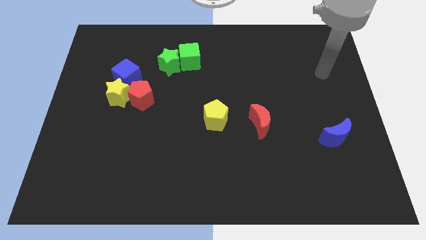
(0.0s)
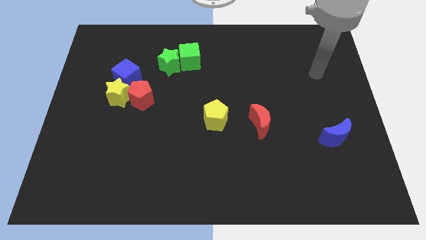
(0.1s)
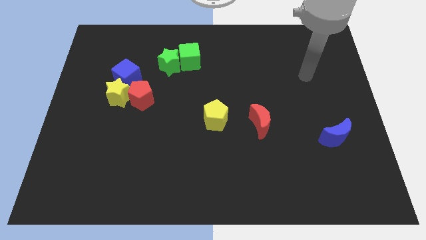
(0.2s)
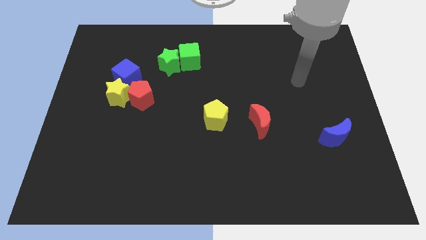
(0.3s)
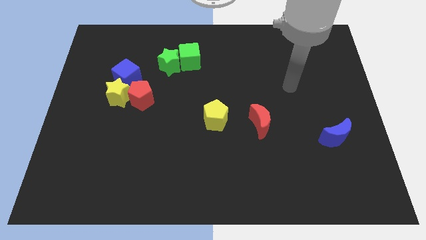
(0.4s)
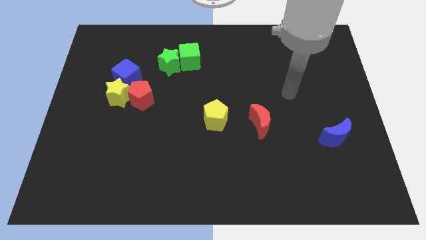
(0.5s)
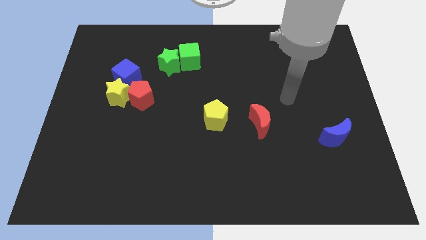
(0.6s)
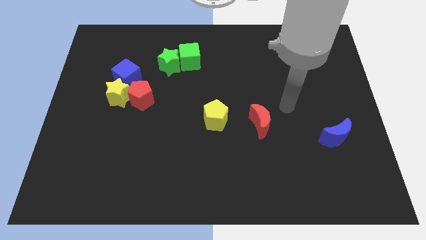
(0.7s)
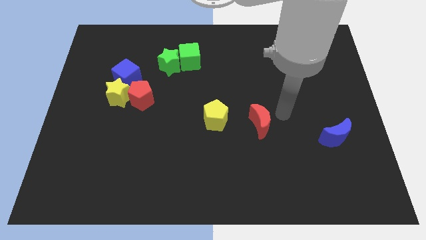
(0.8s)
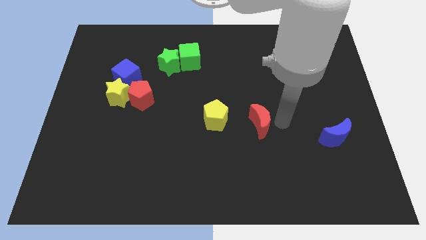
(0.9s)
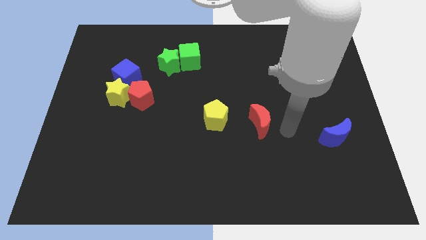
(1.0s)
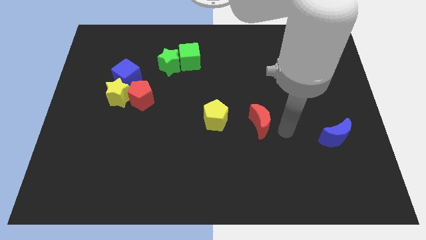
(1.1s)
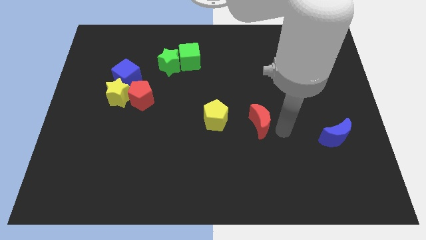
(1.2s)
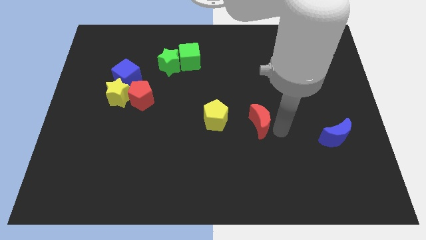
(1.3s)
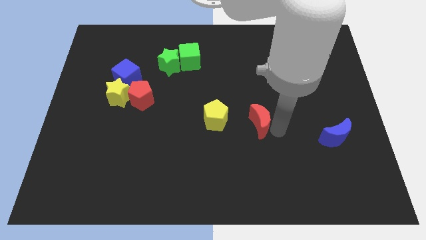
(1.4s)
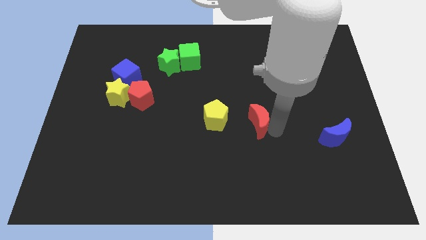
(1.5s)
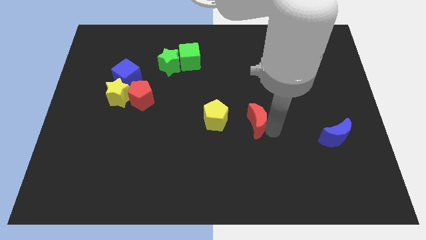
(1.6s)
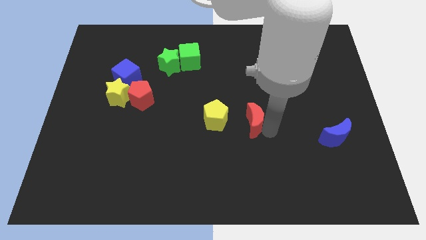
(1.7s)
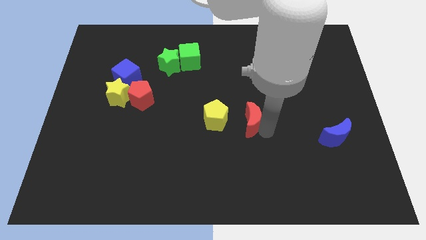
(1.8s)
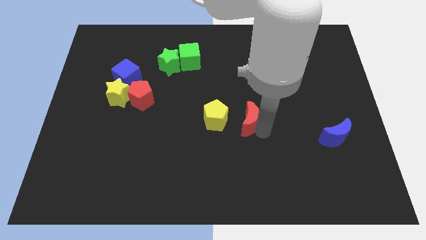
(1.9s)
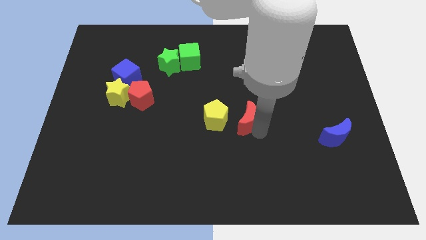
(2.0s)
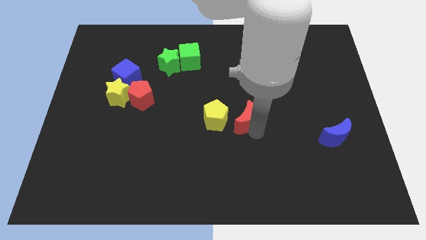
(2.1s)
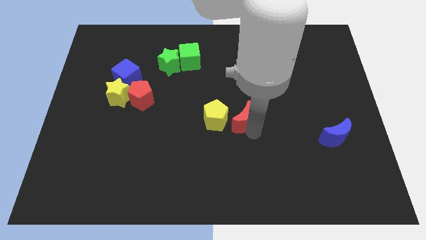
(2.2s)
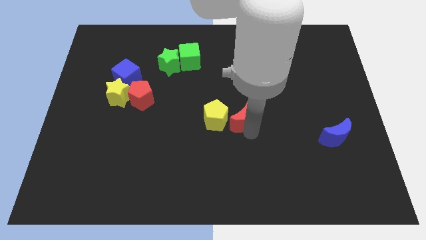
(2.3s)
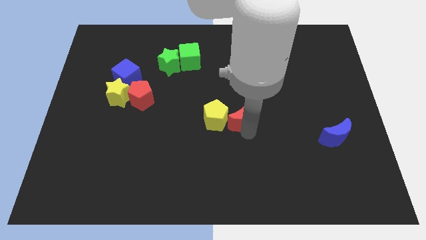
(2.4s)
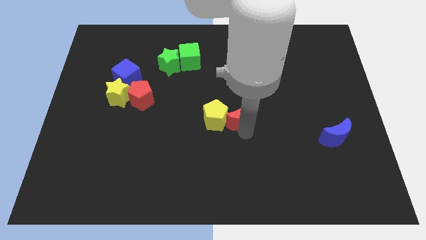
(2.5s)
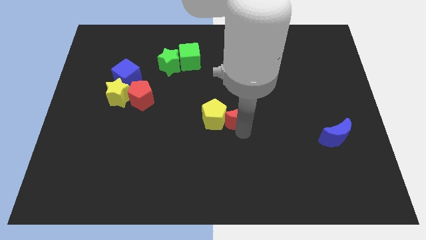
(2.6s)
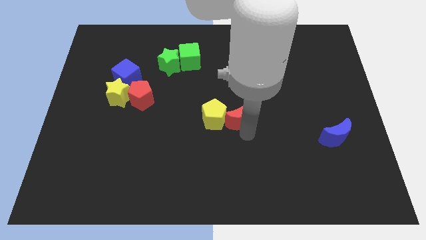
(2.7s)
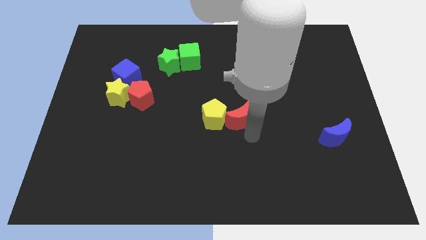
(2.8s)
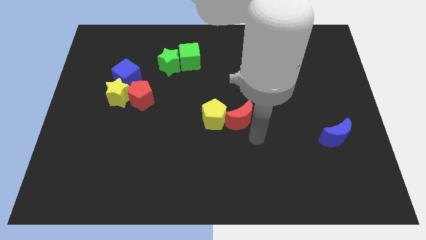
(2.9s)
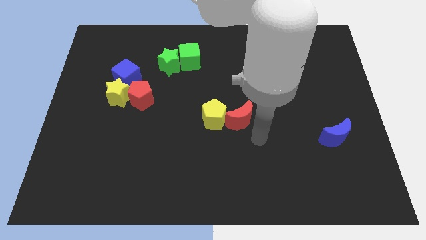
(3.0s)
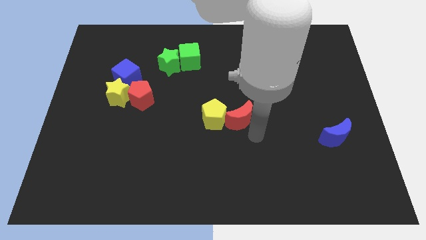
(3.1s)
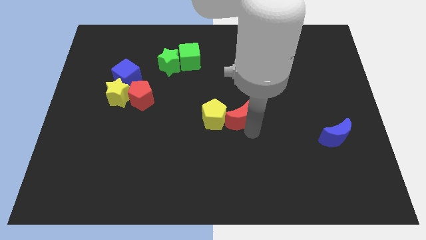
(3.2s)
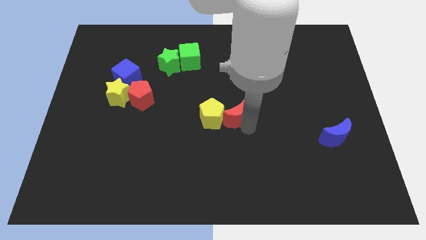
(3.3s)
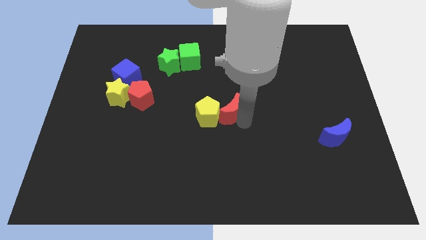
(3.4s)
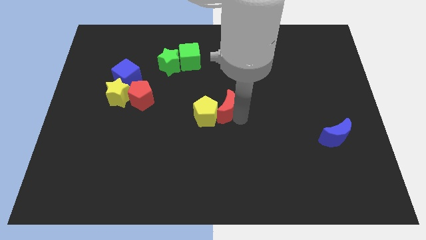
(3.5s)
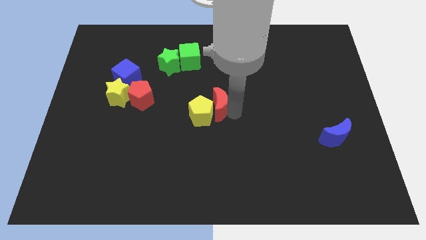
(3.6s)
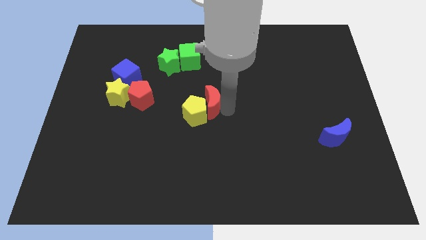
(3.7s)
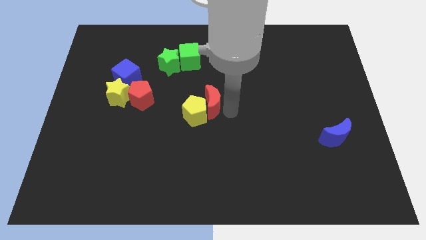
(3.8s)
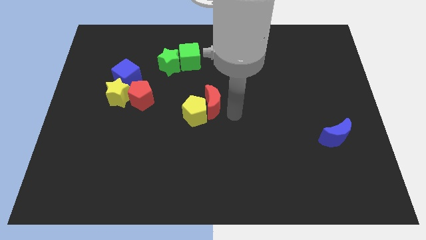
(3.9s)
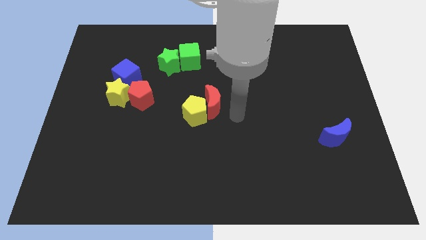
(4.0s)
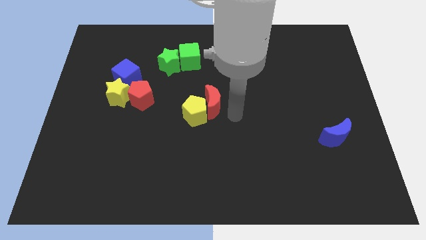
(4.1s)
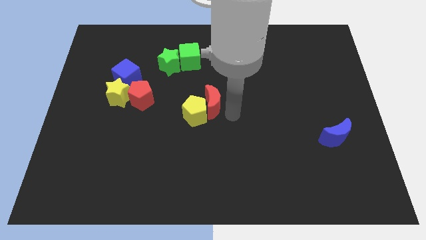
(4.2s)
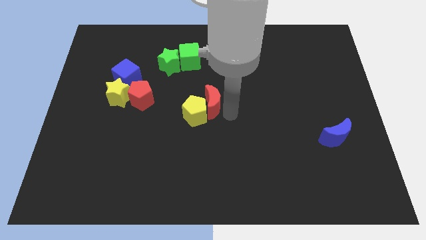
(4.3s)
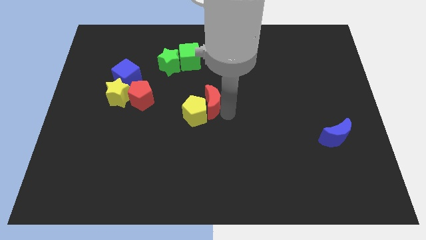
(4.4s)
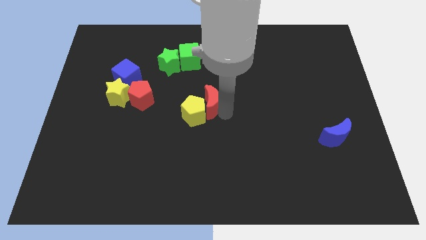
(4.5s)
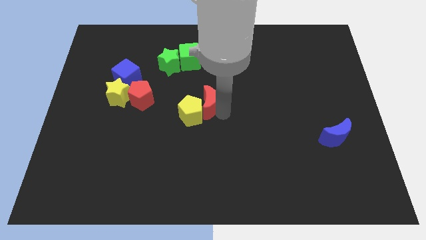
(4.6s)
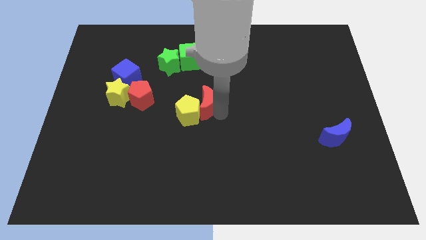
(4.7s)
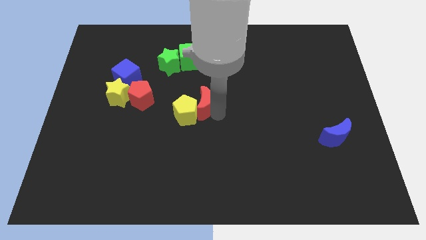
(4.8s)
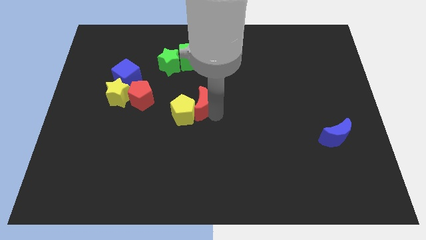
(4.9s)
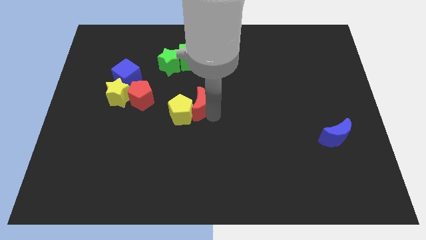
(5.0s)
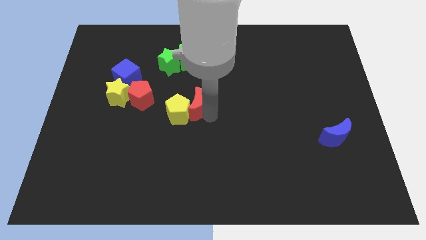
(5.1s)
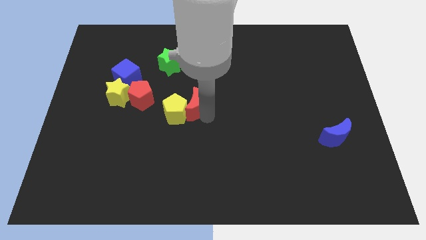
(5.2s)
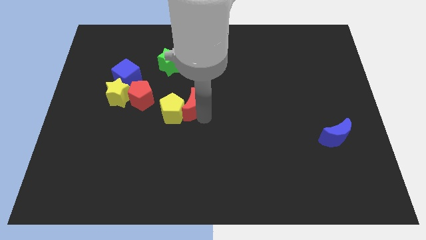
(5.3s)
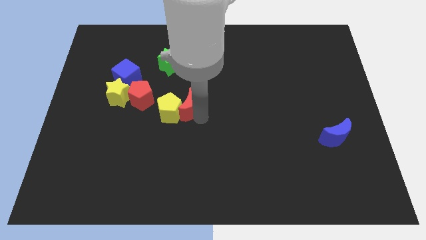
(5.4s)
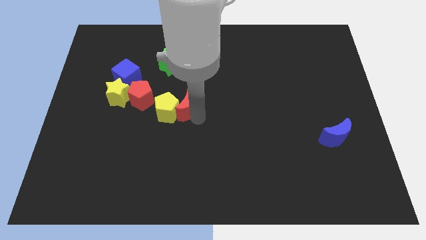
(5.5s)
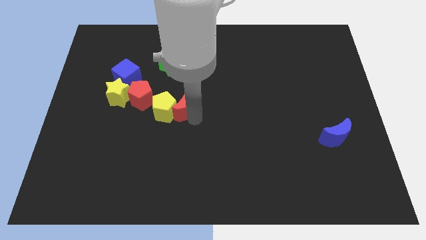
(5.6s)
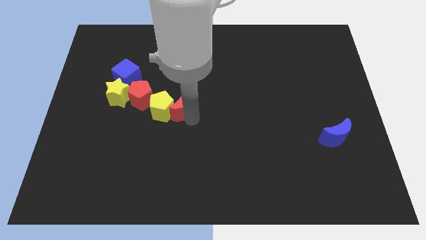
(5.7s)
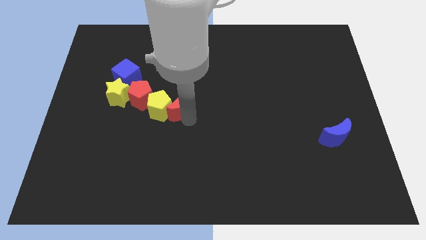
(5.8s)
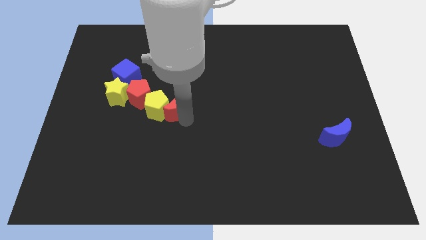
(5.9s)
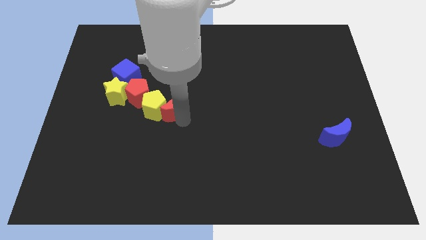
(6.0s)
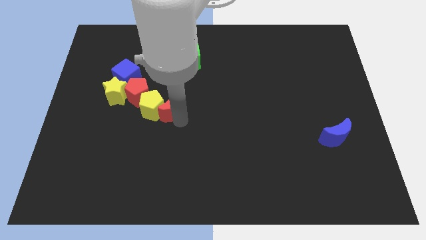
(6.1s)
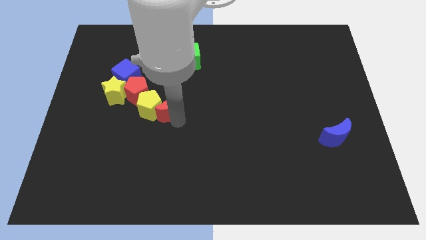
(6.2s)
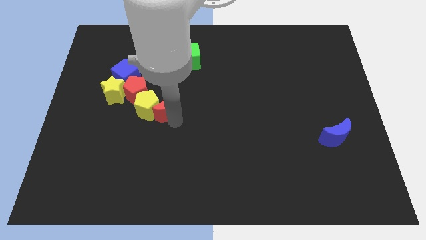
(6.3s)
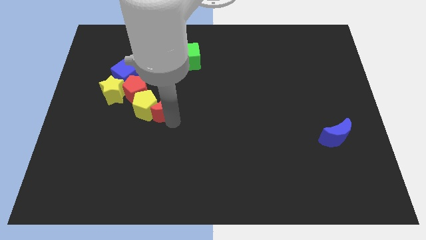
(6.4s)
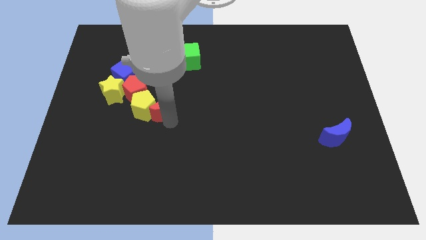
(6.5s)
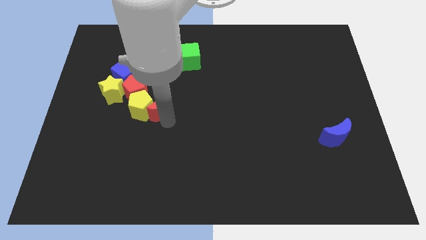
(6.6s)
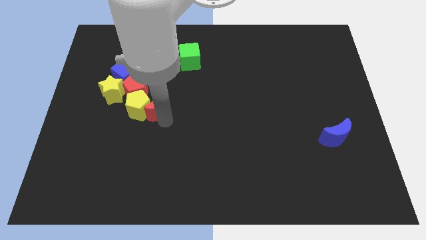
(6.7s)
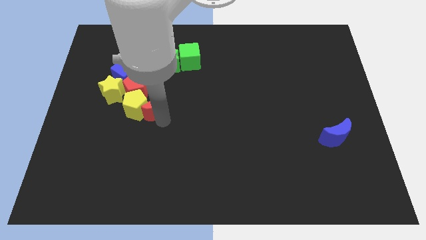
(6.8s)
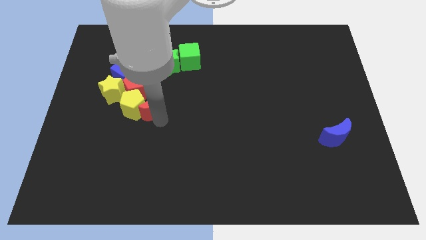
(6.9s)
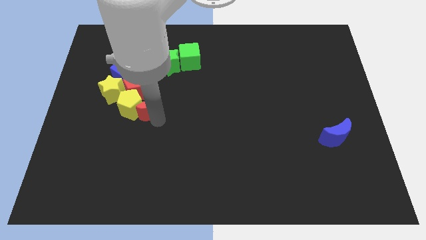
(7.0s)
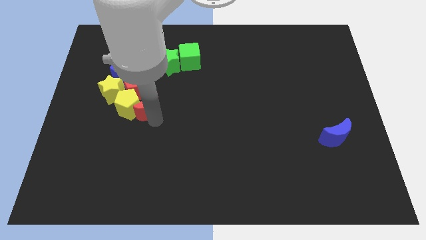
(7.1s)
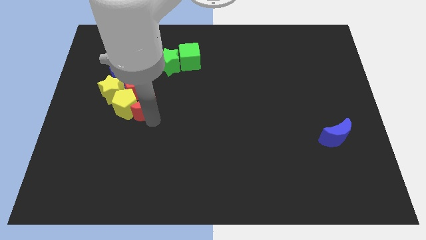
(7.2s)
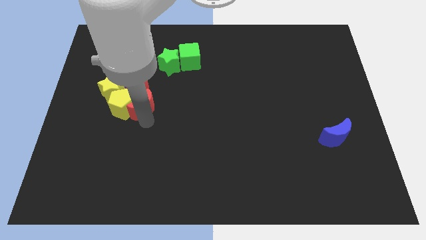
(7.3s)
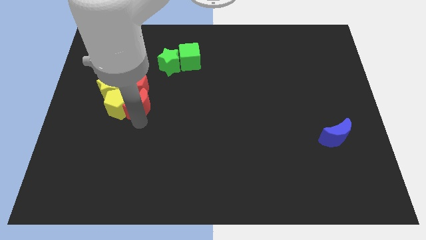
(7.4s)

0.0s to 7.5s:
move the red moon next to the red pentagon
